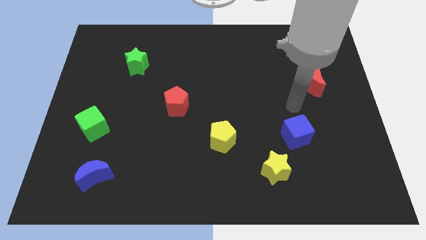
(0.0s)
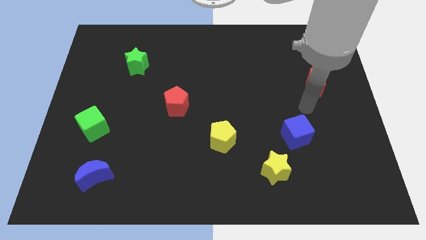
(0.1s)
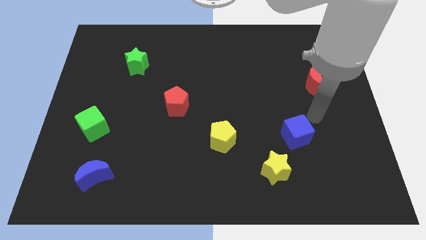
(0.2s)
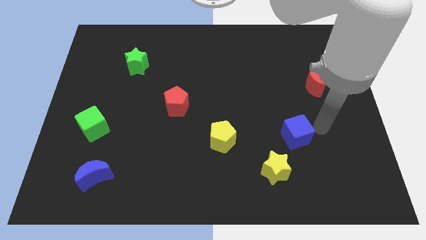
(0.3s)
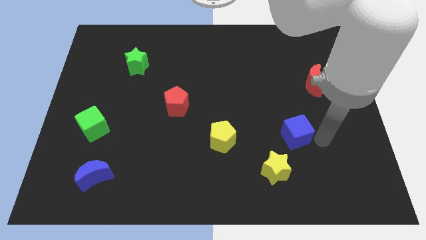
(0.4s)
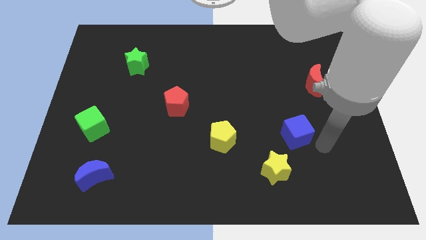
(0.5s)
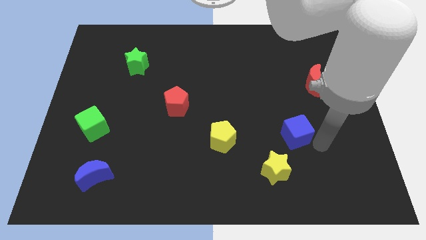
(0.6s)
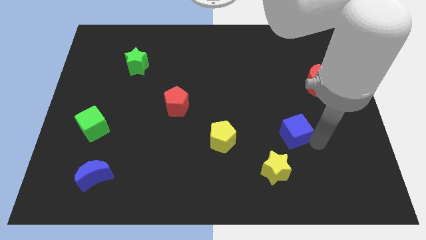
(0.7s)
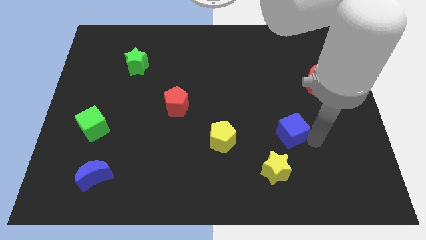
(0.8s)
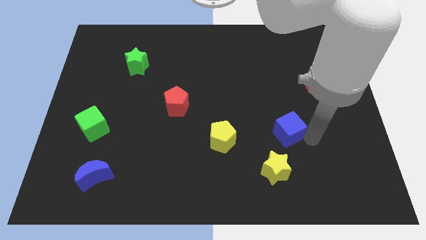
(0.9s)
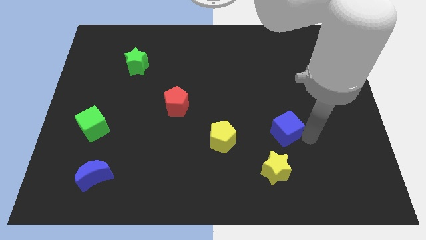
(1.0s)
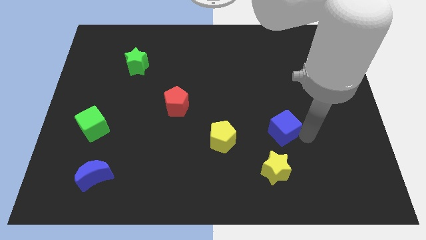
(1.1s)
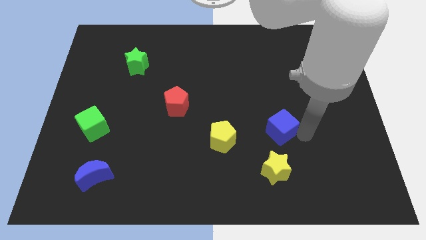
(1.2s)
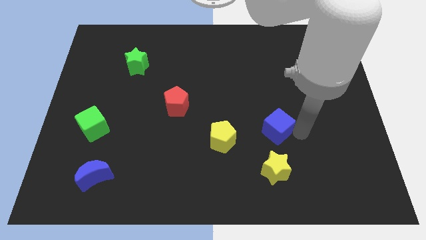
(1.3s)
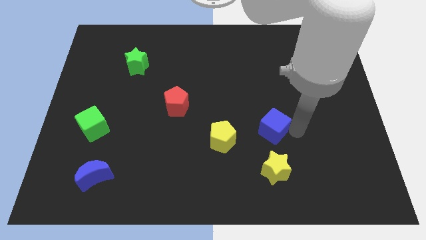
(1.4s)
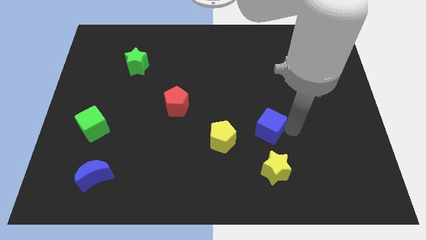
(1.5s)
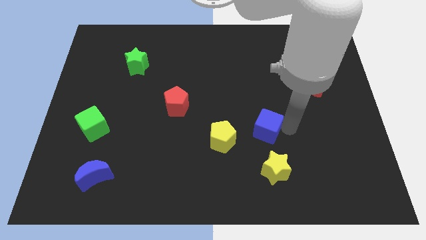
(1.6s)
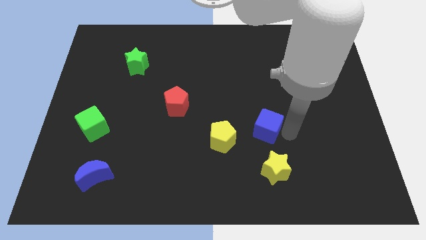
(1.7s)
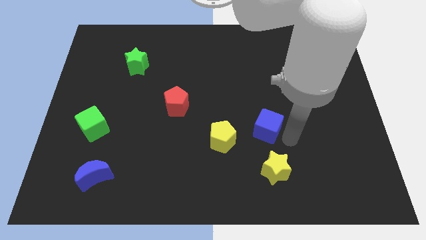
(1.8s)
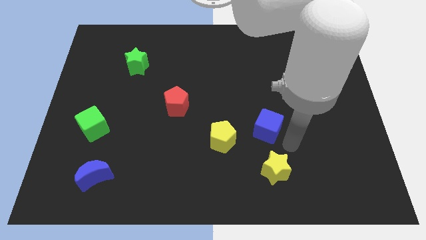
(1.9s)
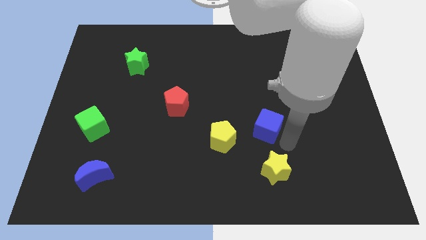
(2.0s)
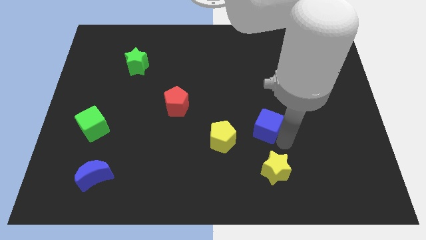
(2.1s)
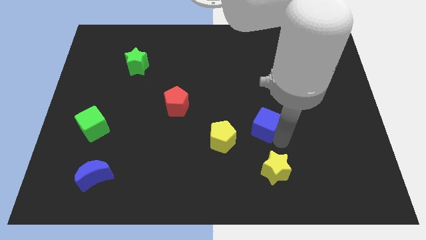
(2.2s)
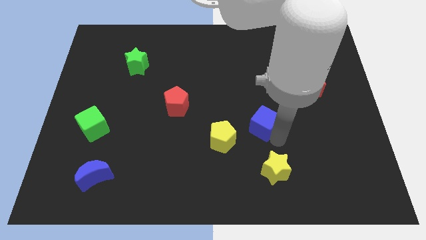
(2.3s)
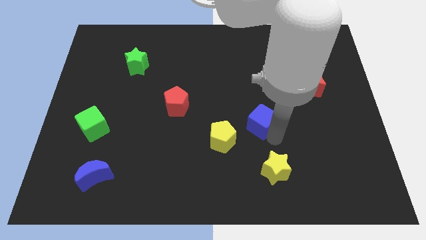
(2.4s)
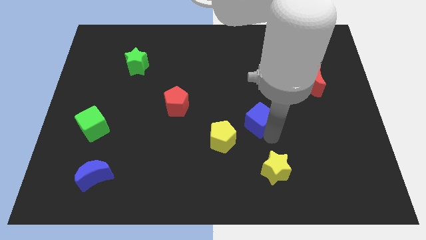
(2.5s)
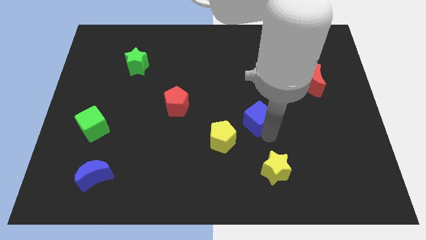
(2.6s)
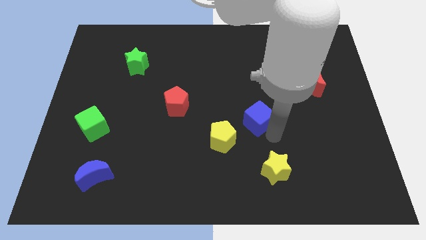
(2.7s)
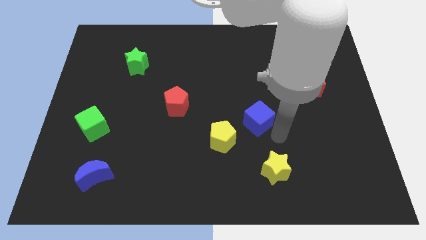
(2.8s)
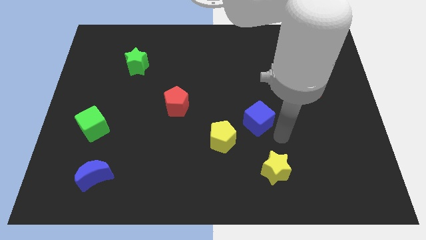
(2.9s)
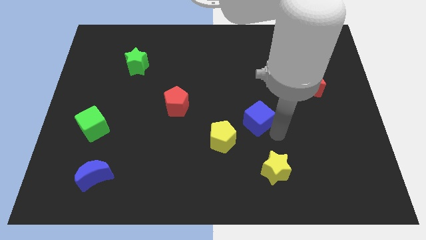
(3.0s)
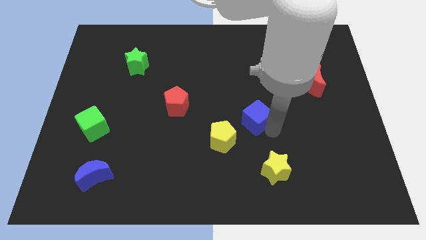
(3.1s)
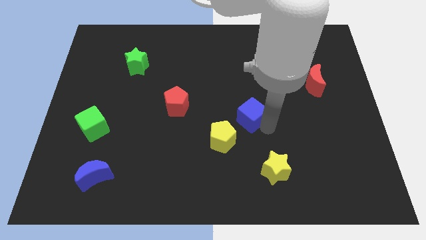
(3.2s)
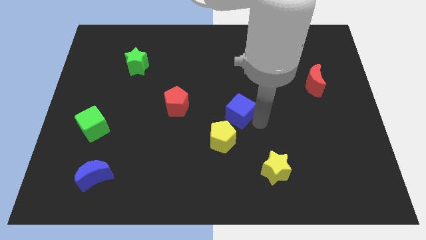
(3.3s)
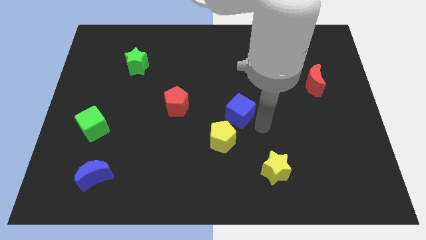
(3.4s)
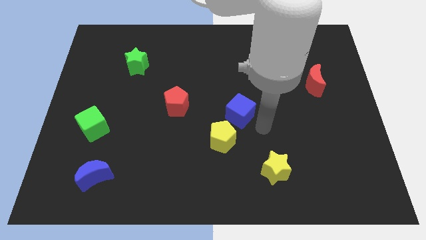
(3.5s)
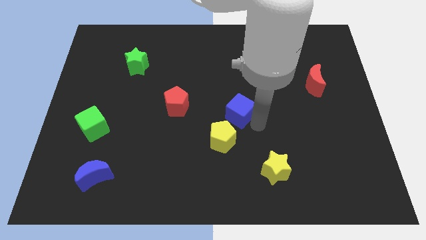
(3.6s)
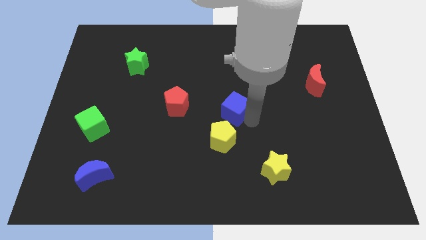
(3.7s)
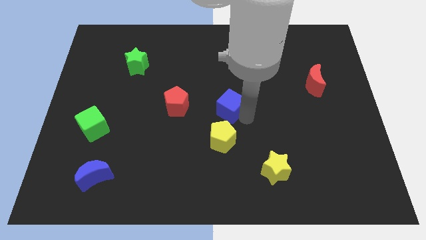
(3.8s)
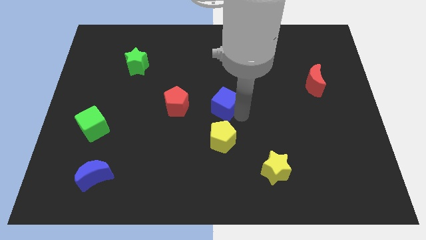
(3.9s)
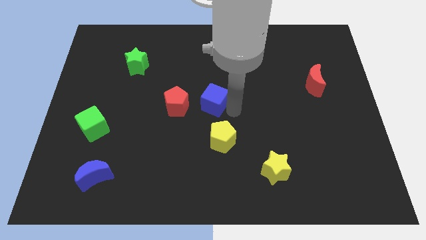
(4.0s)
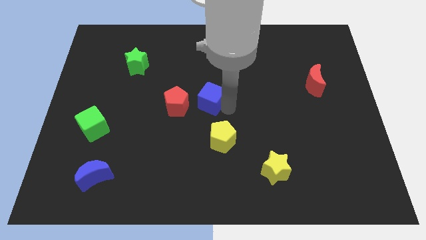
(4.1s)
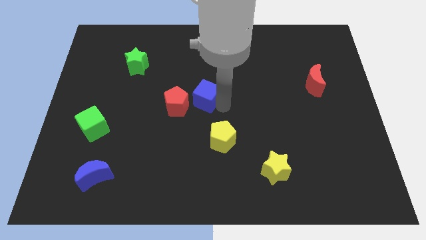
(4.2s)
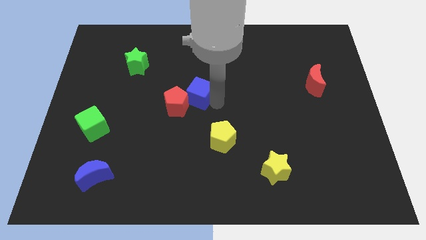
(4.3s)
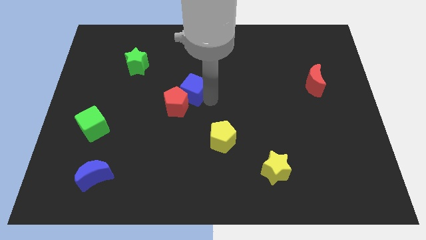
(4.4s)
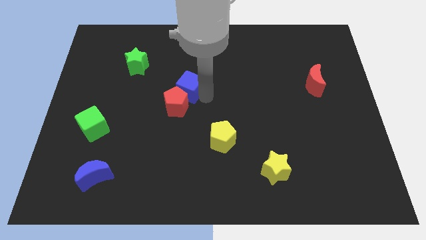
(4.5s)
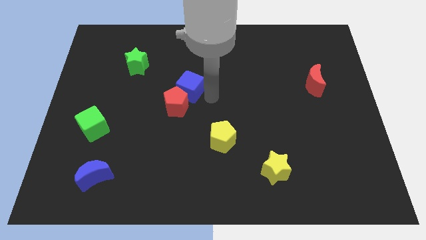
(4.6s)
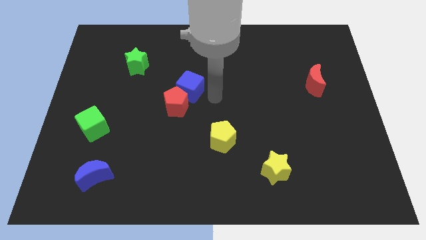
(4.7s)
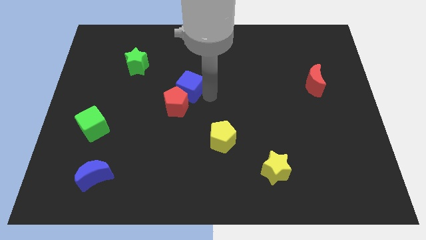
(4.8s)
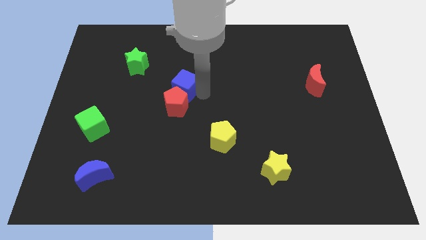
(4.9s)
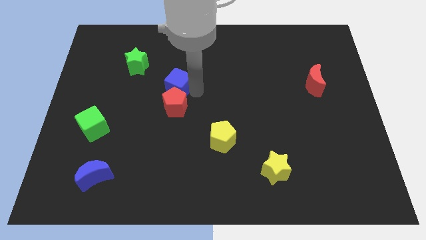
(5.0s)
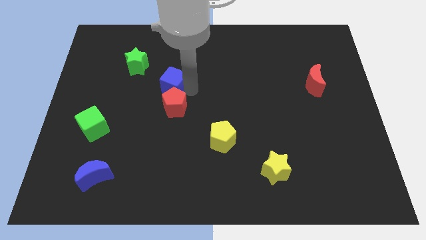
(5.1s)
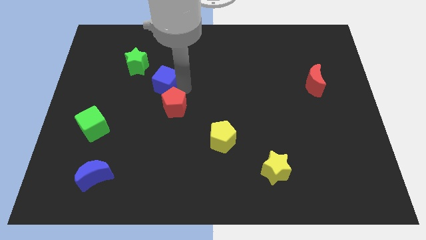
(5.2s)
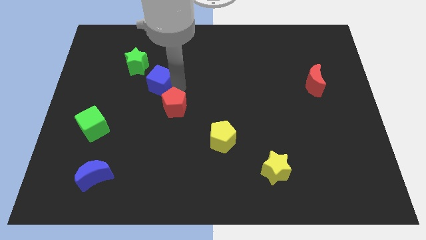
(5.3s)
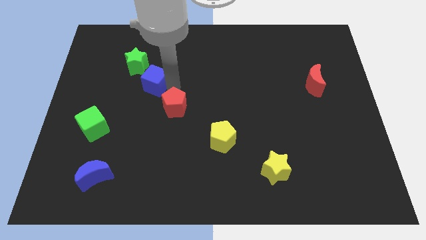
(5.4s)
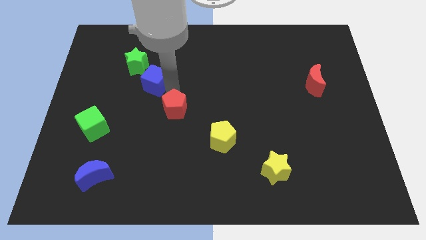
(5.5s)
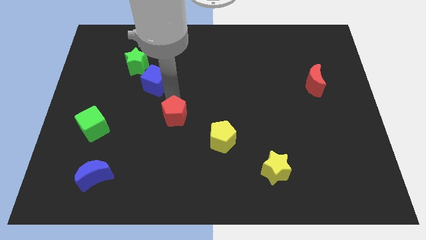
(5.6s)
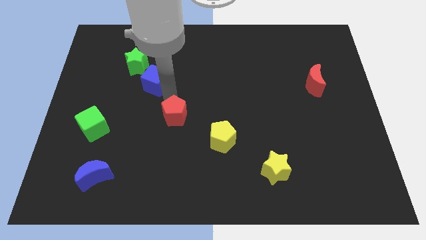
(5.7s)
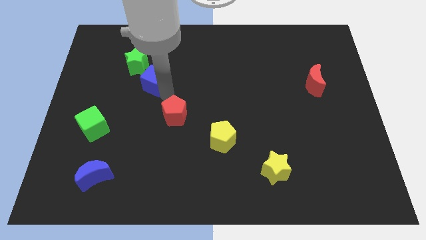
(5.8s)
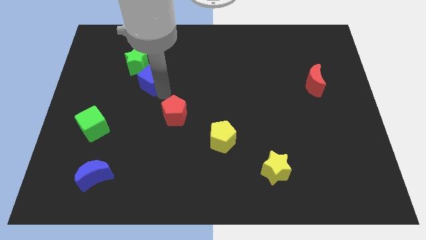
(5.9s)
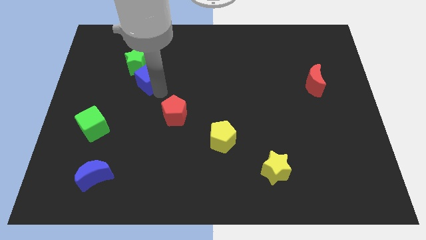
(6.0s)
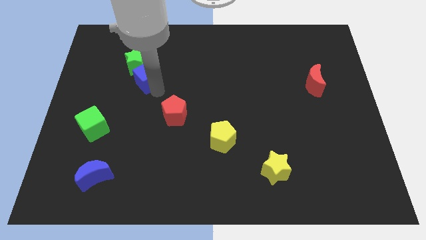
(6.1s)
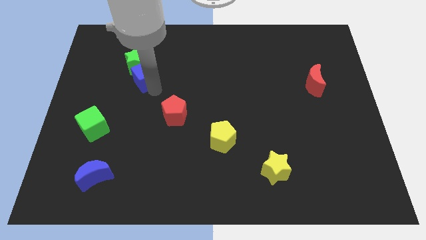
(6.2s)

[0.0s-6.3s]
slide the blue cube to the green star

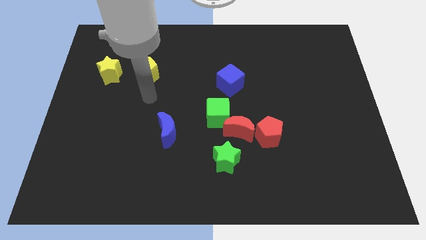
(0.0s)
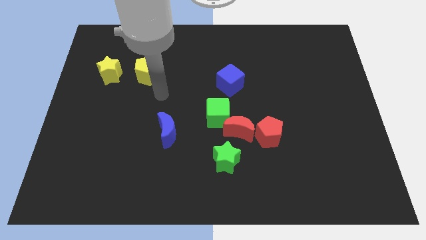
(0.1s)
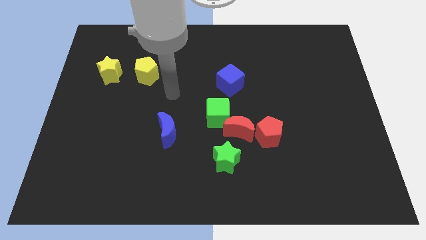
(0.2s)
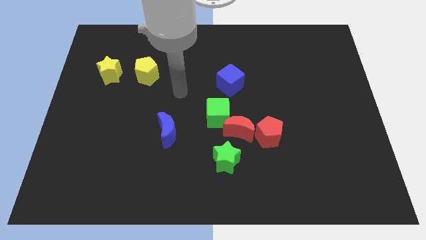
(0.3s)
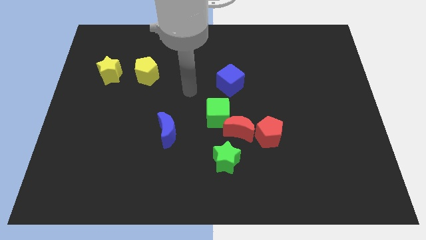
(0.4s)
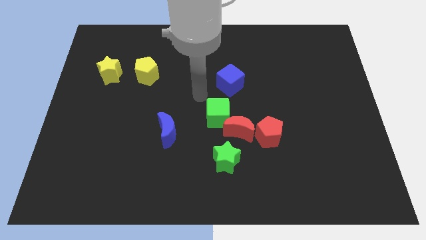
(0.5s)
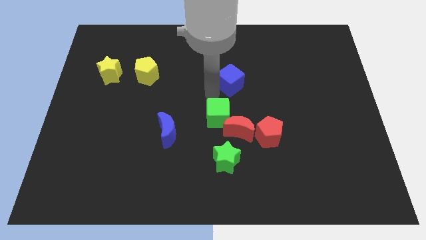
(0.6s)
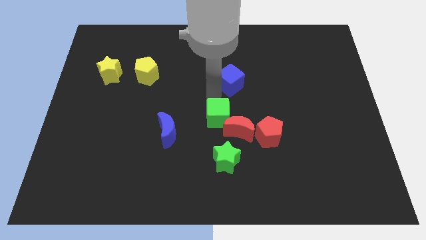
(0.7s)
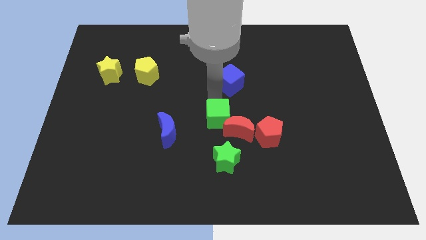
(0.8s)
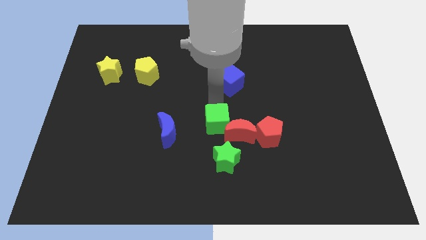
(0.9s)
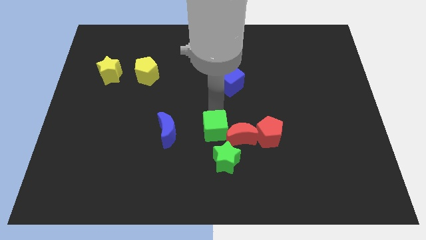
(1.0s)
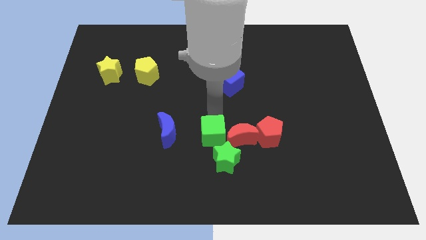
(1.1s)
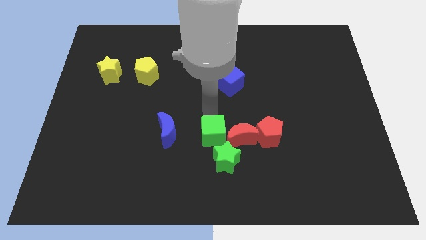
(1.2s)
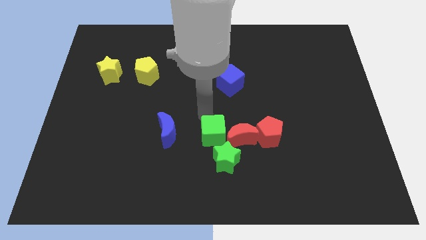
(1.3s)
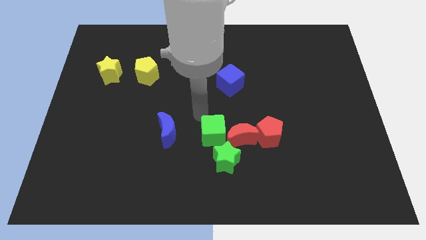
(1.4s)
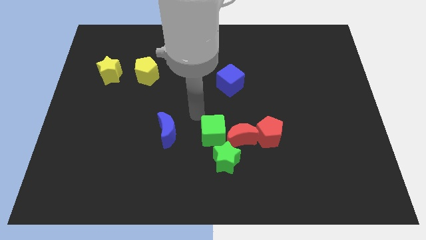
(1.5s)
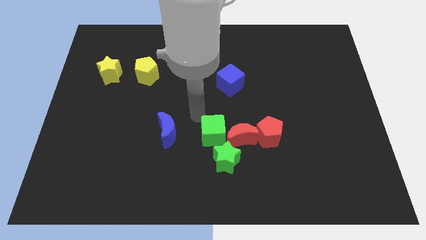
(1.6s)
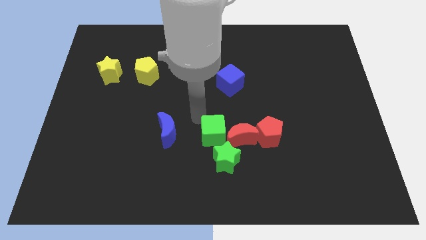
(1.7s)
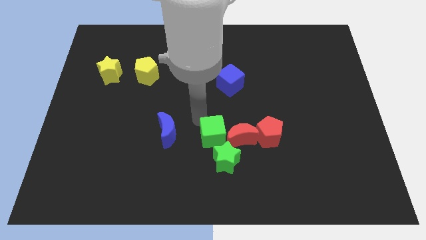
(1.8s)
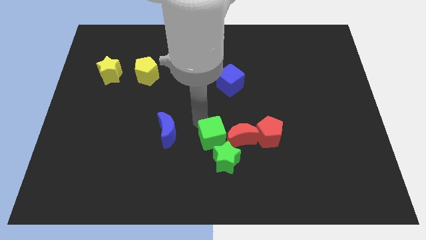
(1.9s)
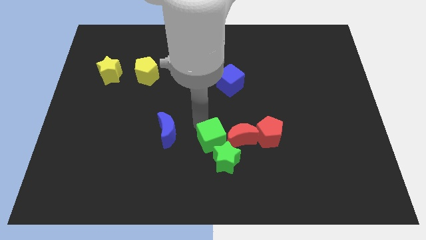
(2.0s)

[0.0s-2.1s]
slide the green cube next to the green star
